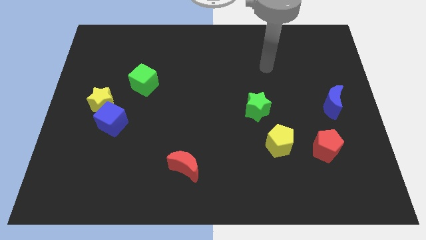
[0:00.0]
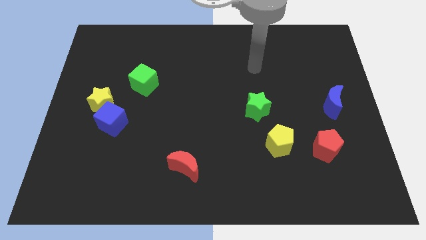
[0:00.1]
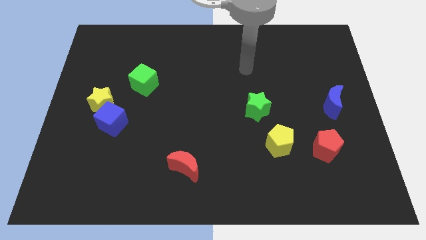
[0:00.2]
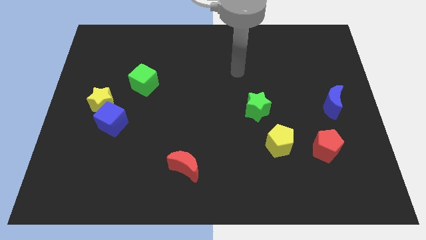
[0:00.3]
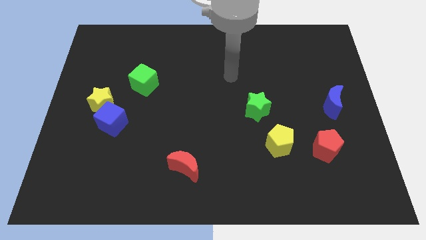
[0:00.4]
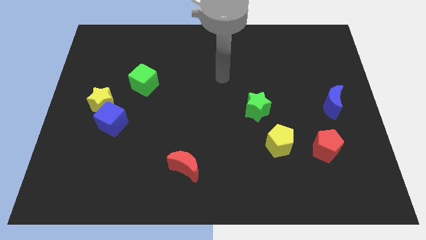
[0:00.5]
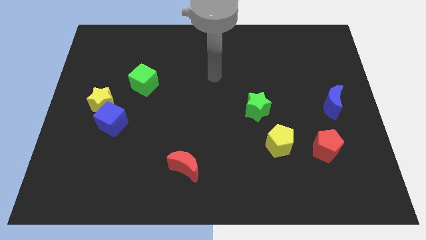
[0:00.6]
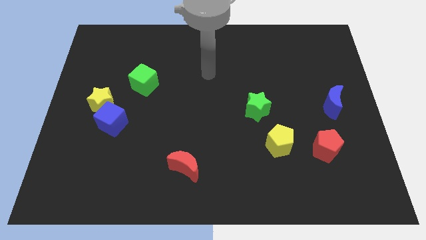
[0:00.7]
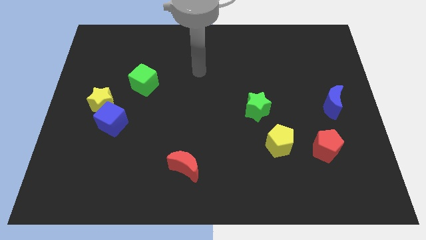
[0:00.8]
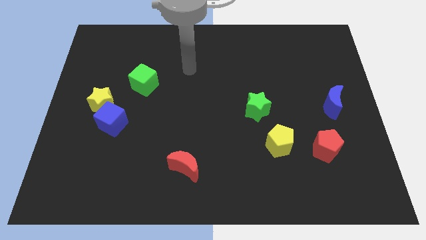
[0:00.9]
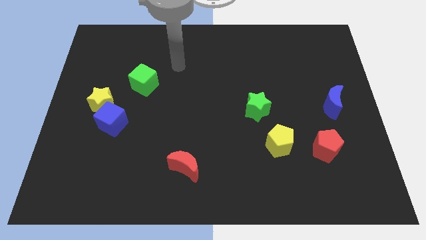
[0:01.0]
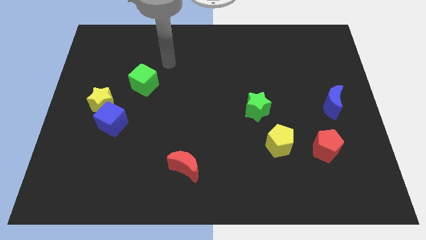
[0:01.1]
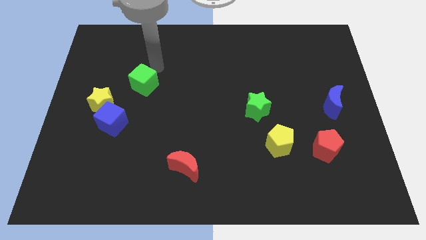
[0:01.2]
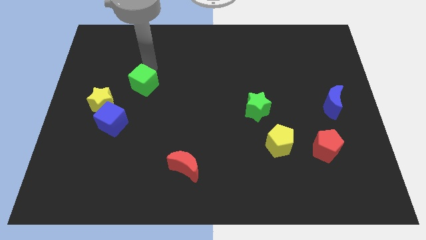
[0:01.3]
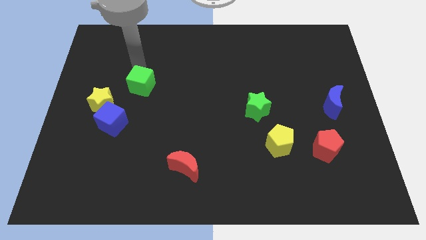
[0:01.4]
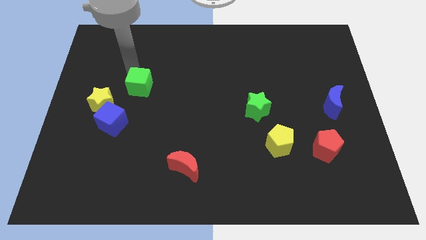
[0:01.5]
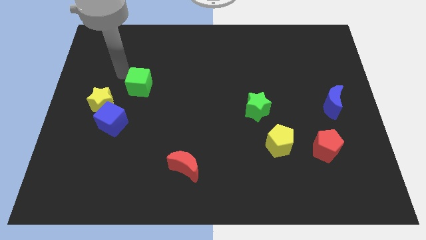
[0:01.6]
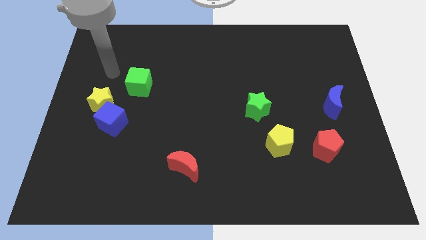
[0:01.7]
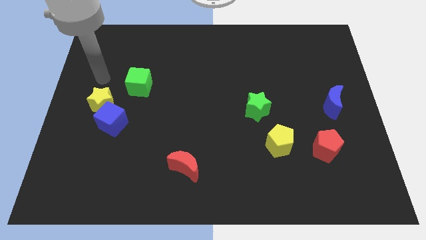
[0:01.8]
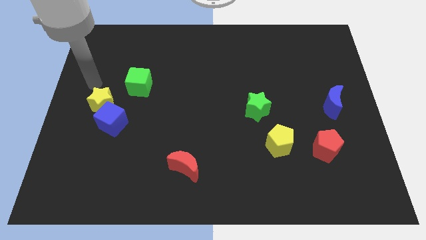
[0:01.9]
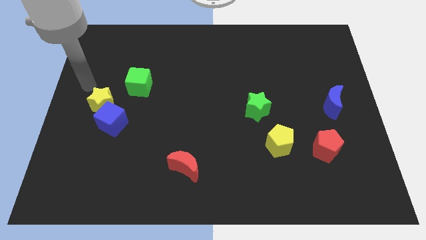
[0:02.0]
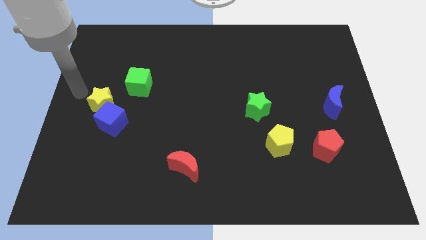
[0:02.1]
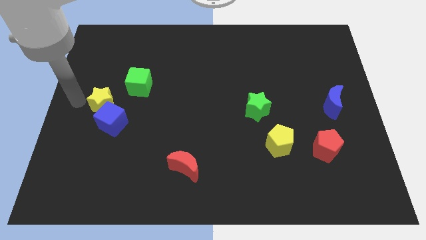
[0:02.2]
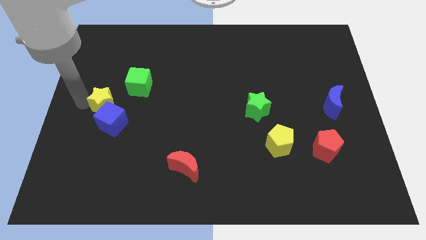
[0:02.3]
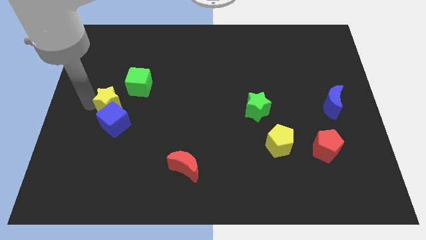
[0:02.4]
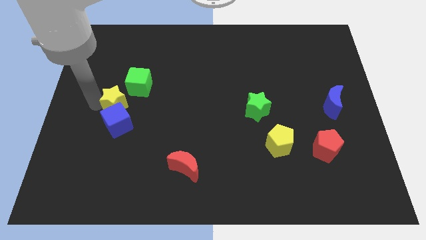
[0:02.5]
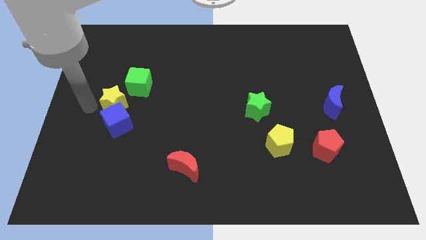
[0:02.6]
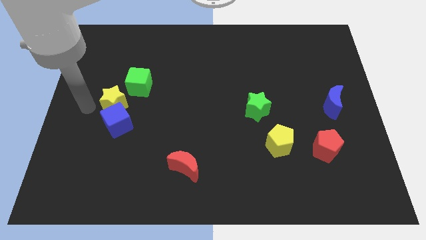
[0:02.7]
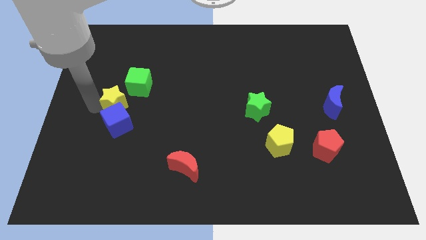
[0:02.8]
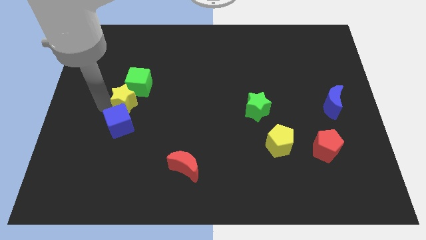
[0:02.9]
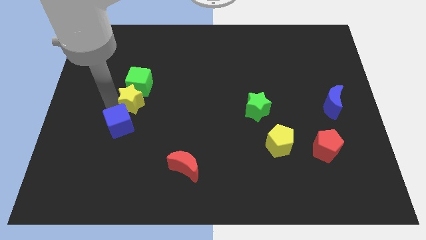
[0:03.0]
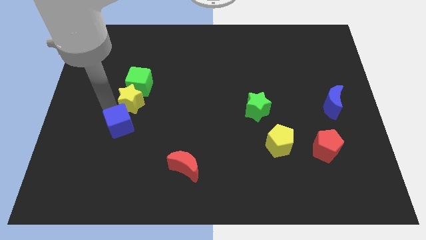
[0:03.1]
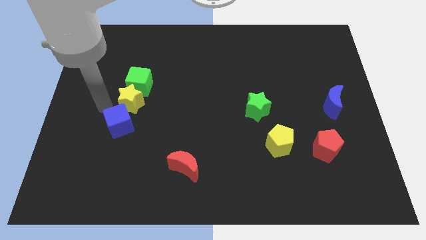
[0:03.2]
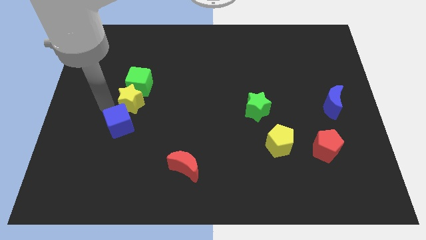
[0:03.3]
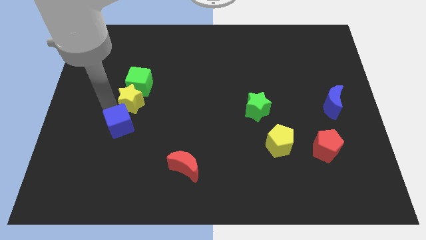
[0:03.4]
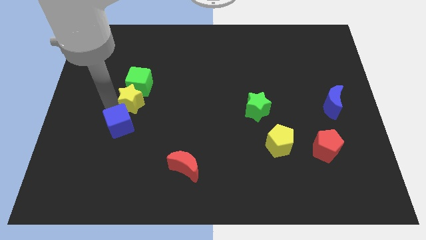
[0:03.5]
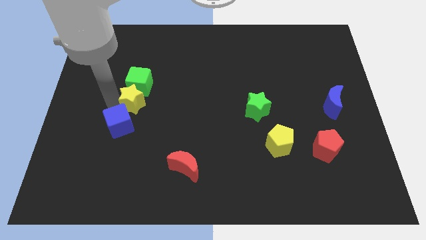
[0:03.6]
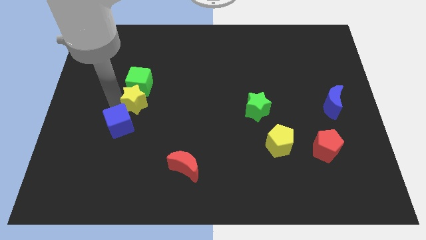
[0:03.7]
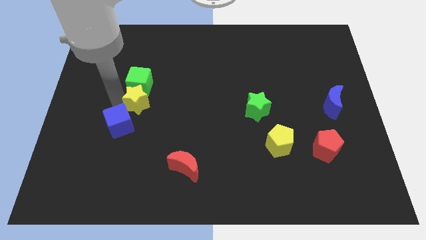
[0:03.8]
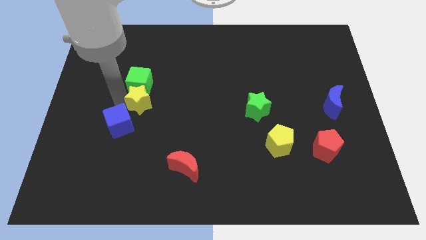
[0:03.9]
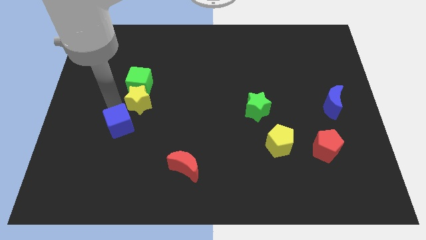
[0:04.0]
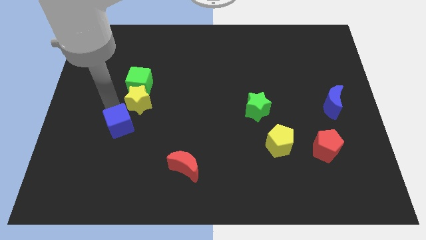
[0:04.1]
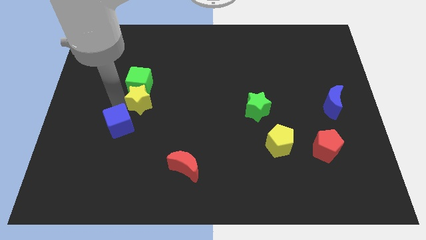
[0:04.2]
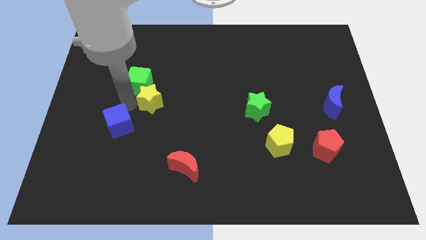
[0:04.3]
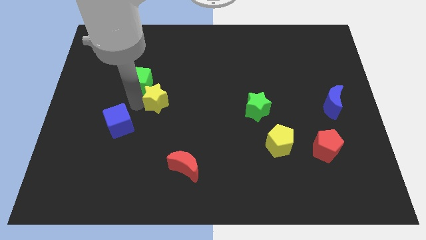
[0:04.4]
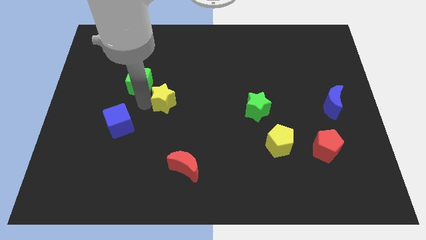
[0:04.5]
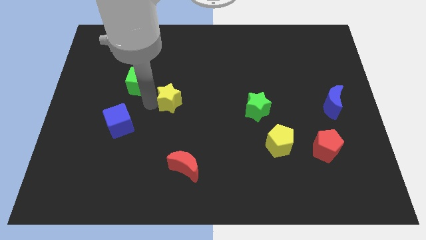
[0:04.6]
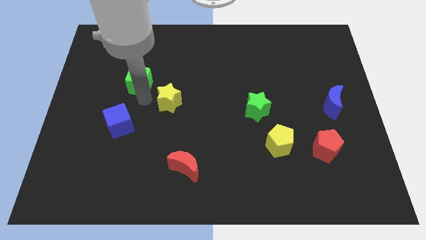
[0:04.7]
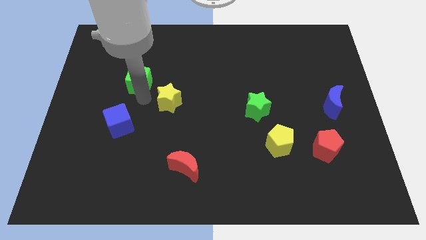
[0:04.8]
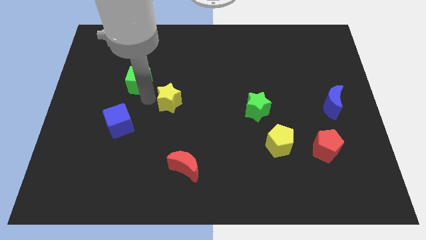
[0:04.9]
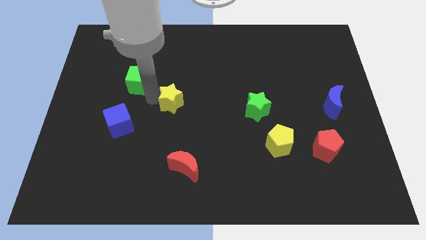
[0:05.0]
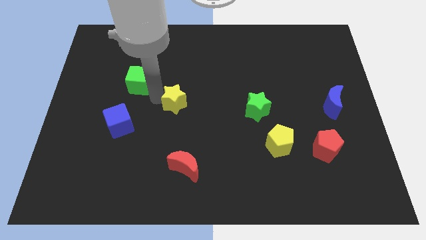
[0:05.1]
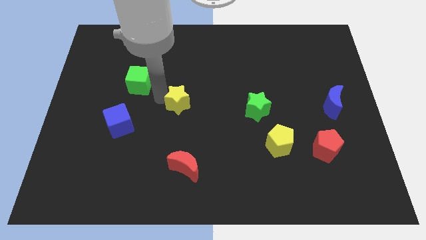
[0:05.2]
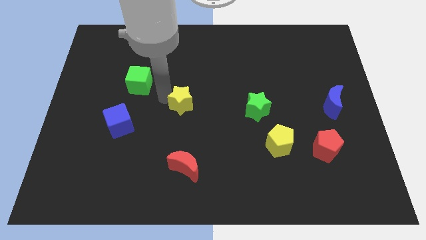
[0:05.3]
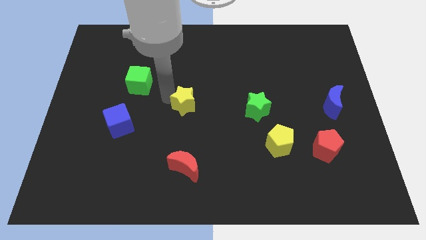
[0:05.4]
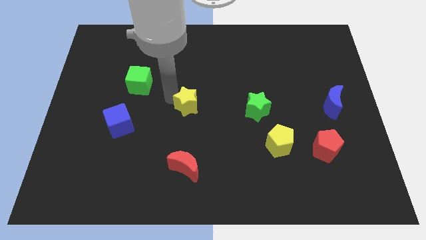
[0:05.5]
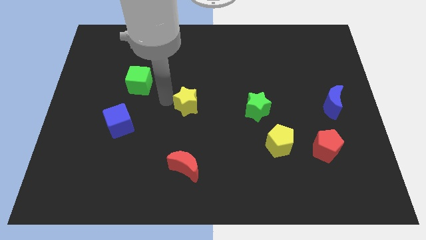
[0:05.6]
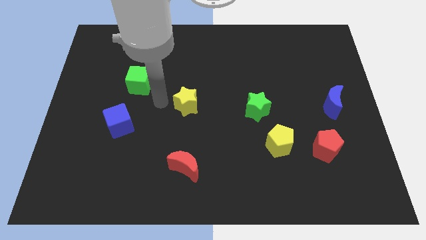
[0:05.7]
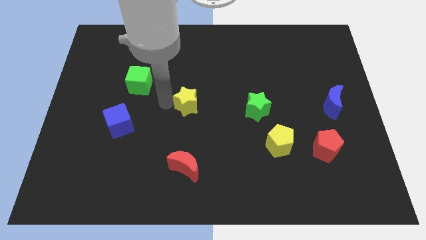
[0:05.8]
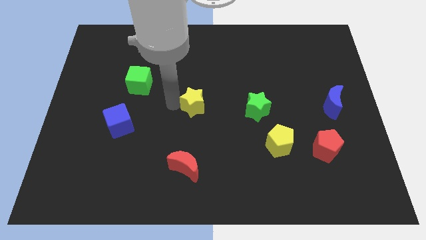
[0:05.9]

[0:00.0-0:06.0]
slide the yellow star left of the green star

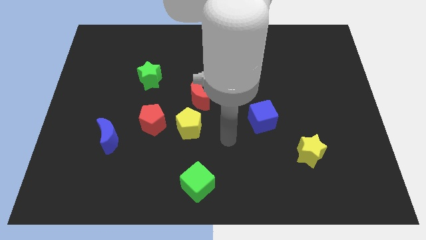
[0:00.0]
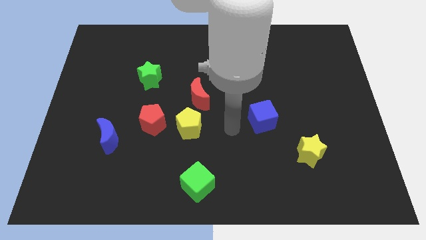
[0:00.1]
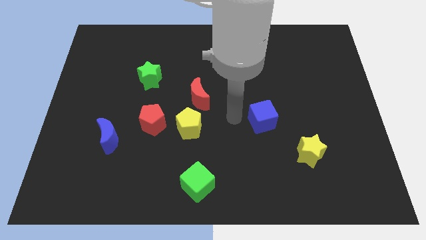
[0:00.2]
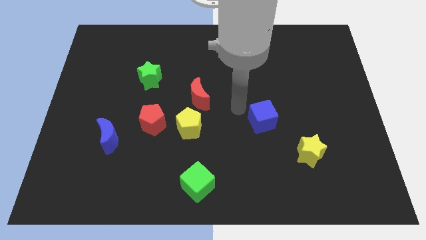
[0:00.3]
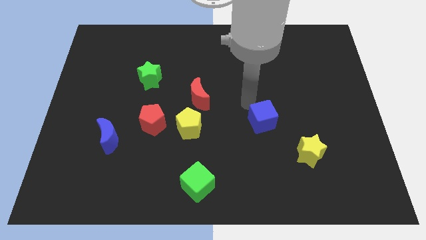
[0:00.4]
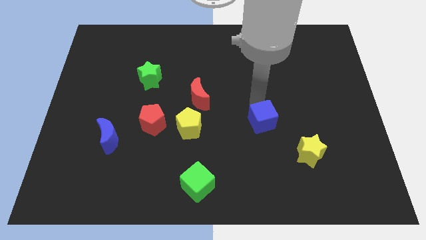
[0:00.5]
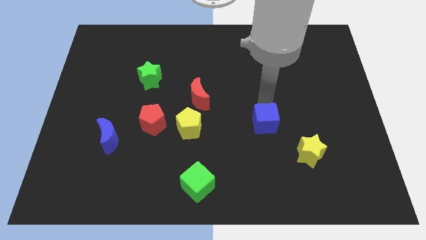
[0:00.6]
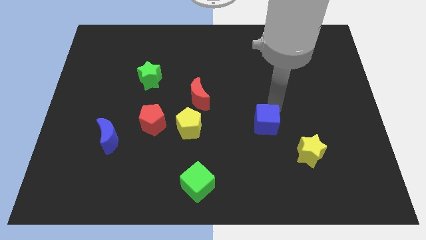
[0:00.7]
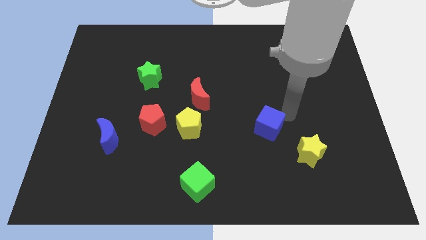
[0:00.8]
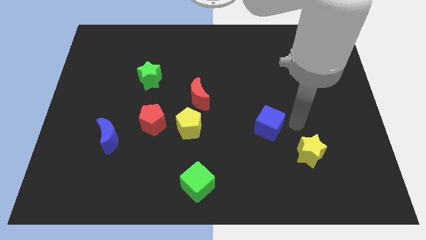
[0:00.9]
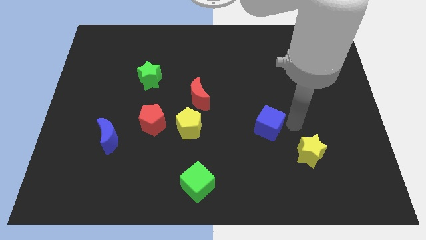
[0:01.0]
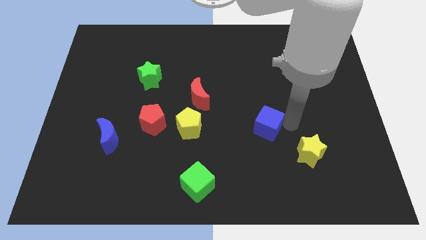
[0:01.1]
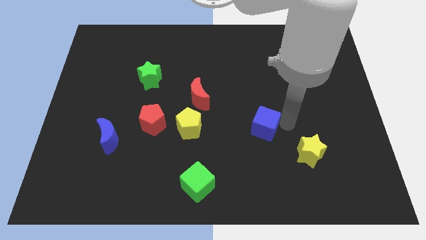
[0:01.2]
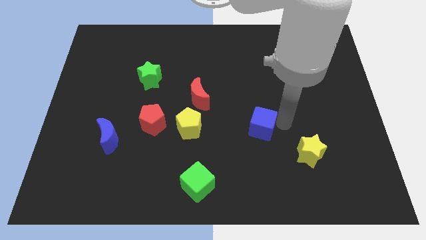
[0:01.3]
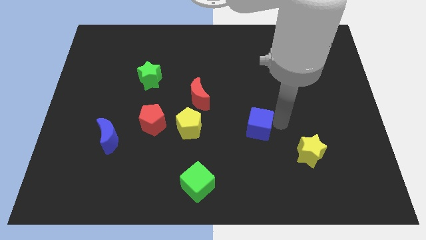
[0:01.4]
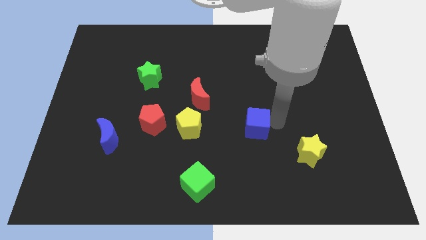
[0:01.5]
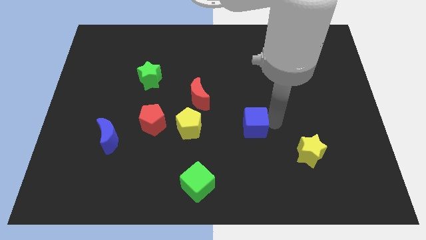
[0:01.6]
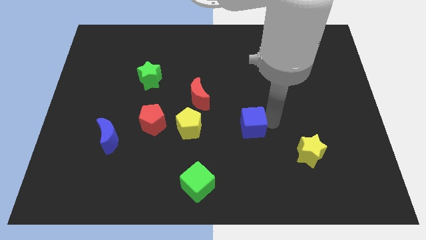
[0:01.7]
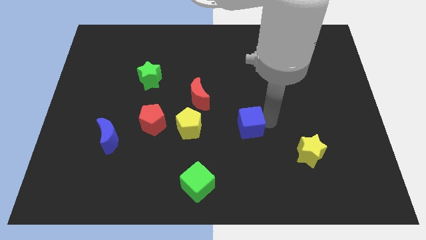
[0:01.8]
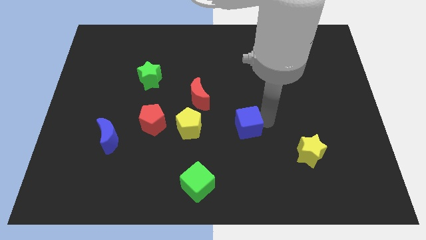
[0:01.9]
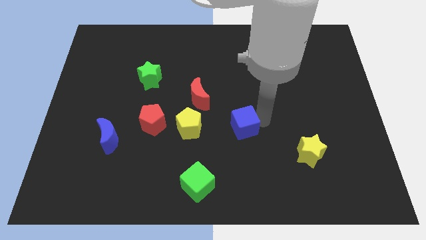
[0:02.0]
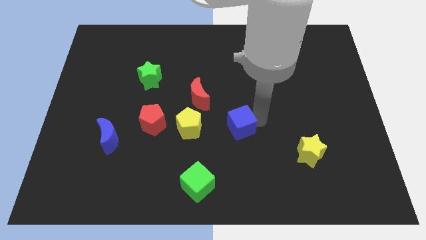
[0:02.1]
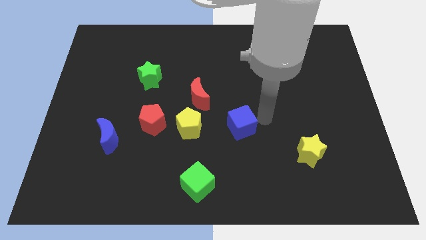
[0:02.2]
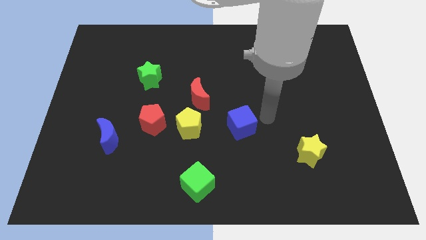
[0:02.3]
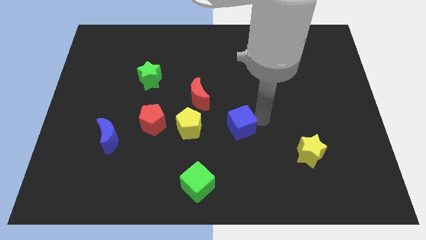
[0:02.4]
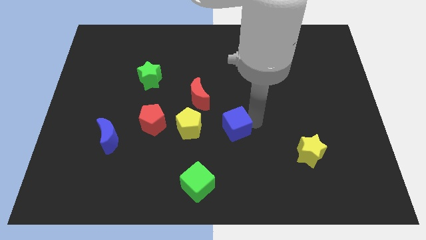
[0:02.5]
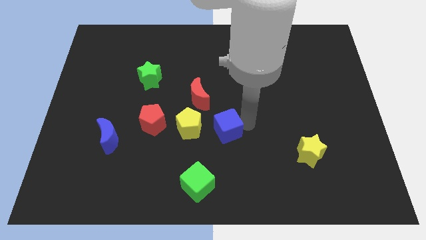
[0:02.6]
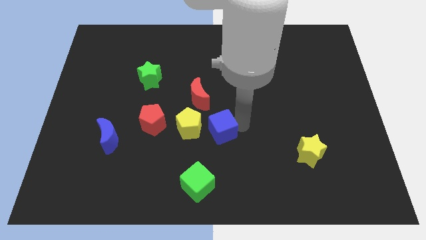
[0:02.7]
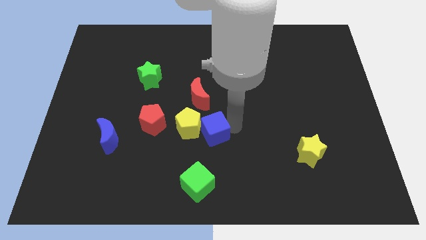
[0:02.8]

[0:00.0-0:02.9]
move the blue cube to the top side of the green cube
